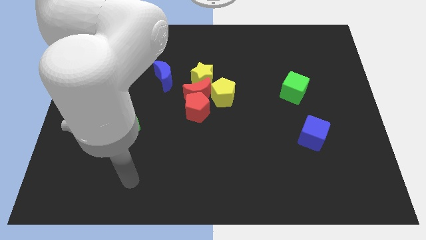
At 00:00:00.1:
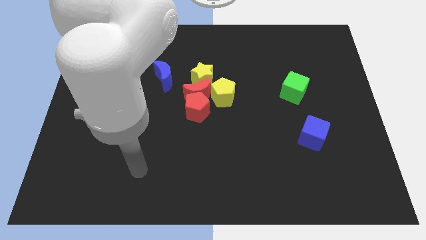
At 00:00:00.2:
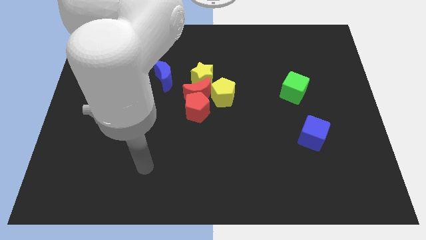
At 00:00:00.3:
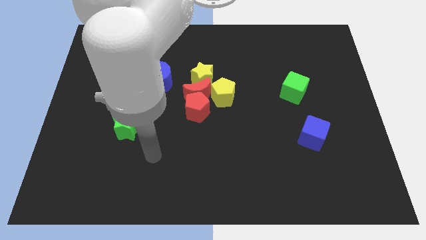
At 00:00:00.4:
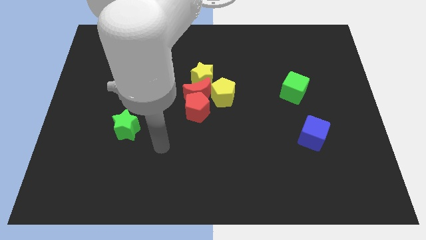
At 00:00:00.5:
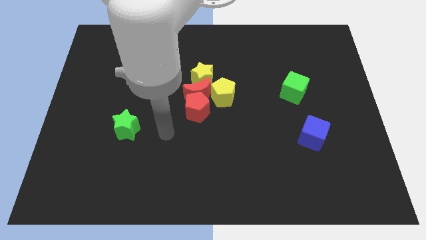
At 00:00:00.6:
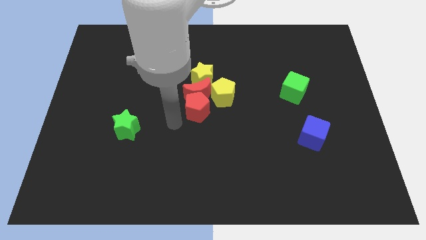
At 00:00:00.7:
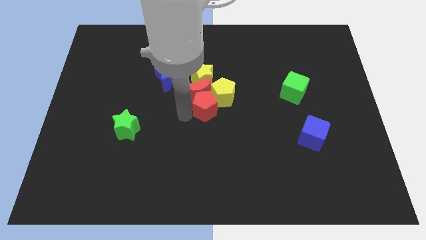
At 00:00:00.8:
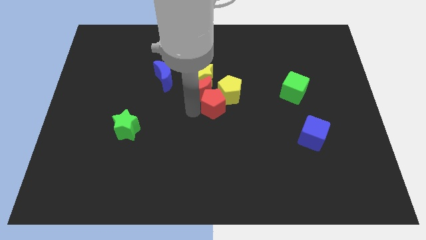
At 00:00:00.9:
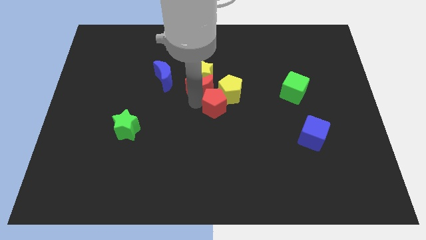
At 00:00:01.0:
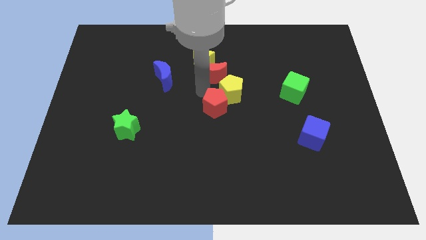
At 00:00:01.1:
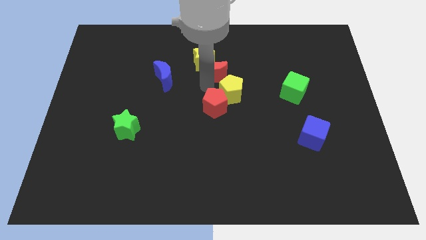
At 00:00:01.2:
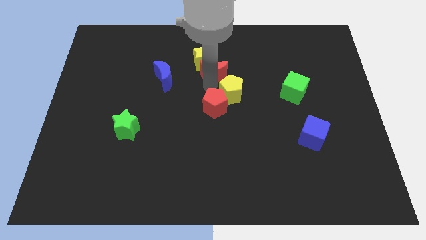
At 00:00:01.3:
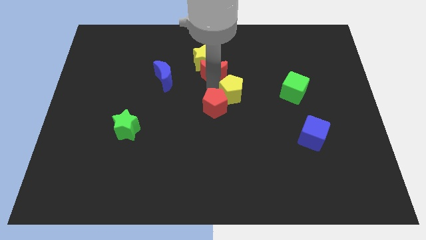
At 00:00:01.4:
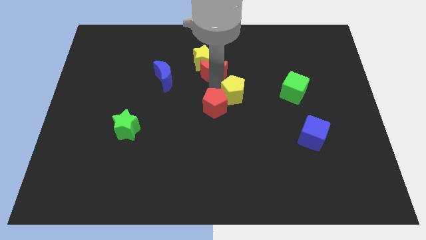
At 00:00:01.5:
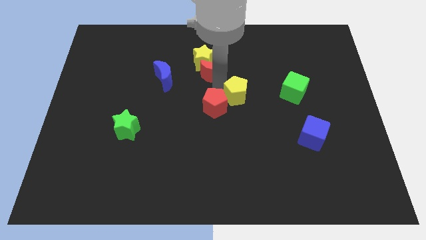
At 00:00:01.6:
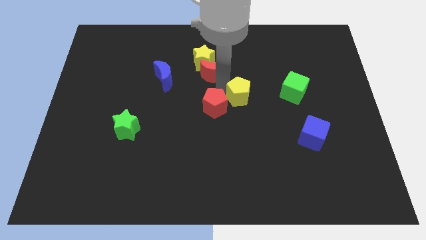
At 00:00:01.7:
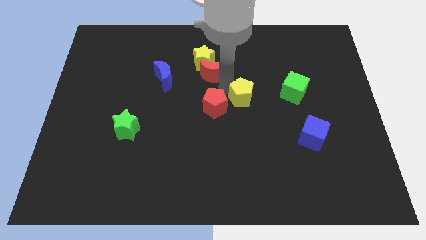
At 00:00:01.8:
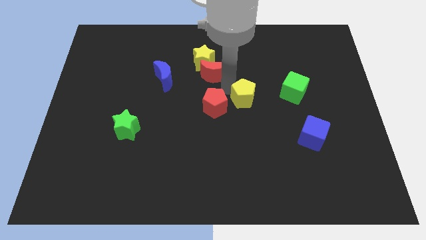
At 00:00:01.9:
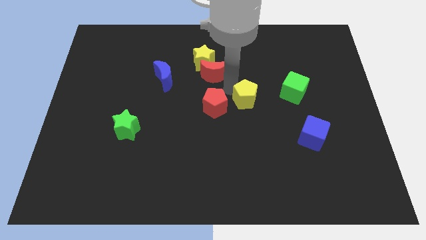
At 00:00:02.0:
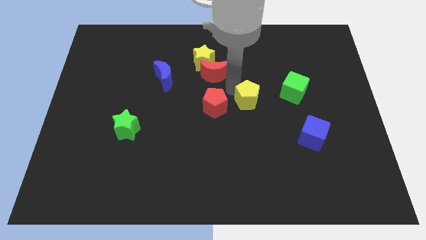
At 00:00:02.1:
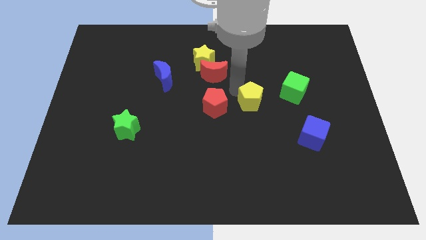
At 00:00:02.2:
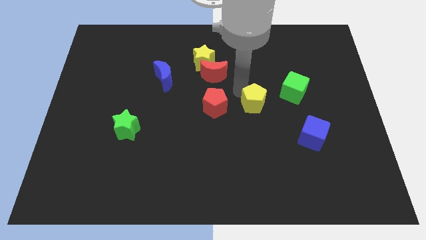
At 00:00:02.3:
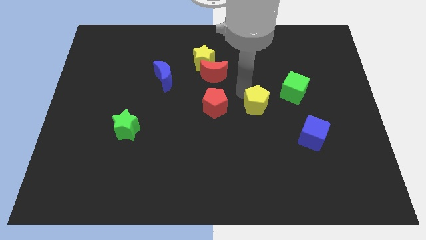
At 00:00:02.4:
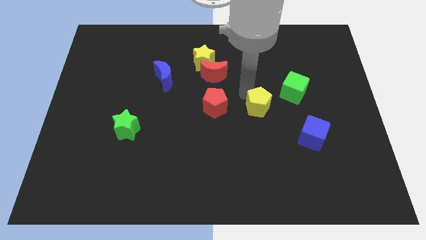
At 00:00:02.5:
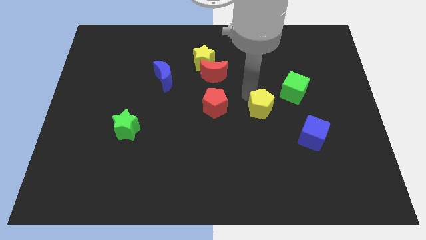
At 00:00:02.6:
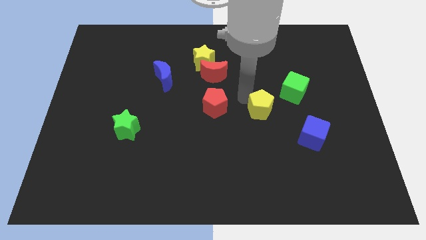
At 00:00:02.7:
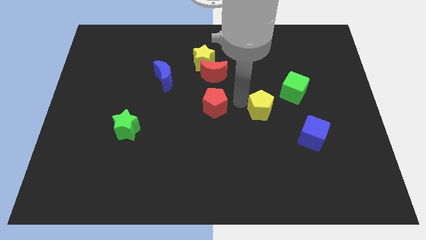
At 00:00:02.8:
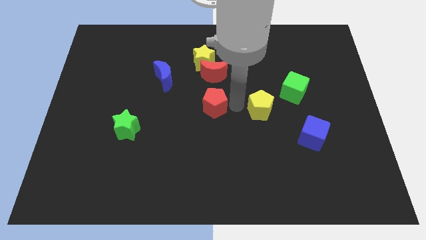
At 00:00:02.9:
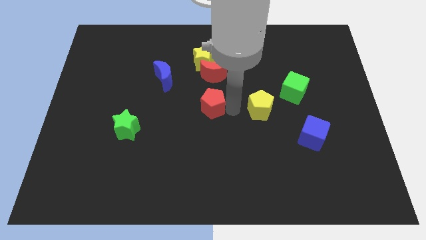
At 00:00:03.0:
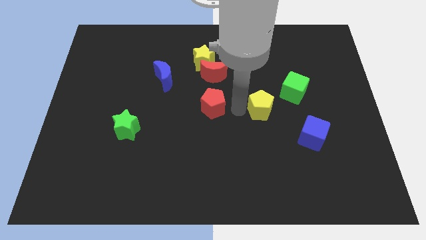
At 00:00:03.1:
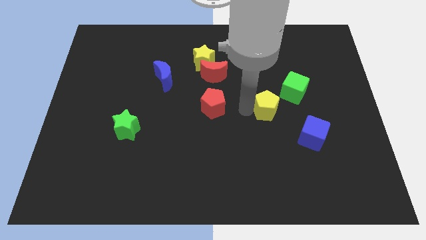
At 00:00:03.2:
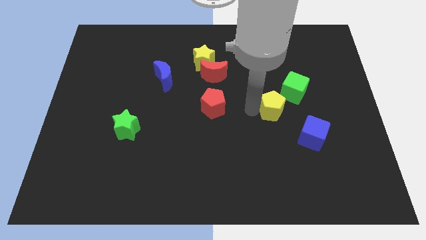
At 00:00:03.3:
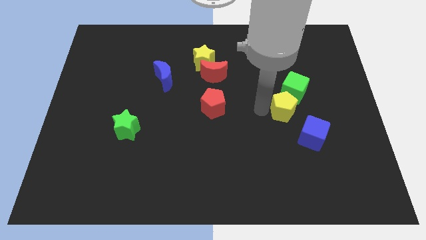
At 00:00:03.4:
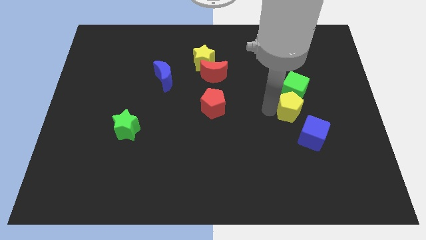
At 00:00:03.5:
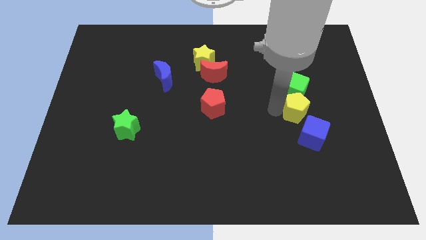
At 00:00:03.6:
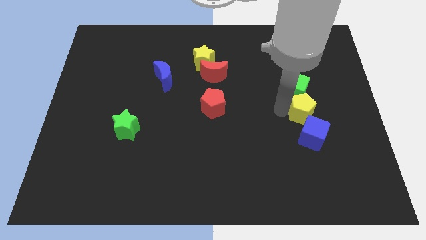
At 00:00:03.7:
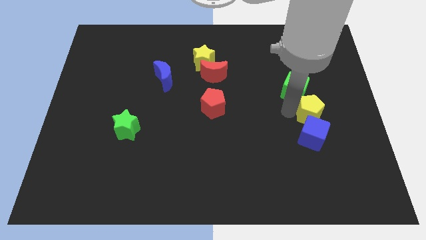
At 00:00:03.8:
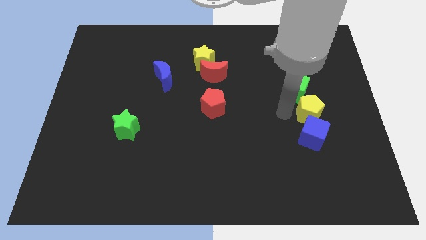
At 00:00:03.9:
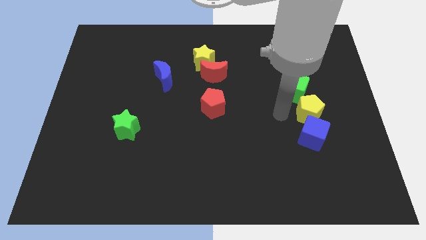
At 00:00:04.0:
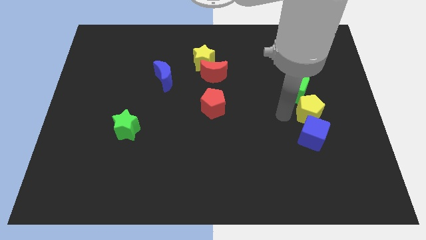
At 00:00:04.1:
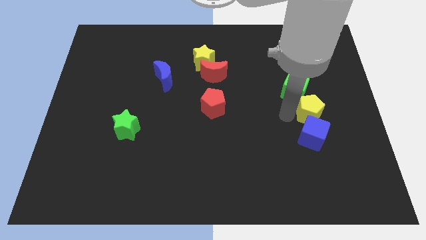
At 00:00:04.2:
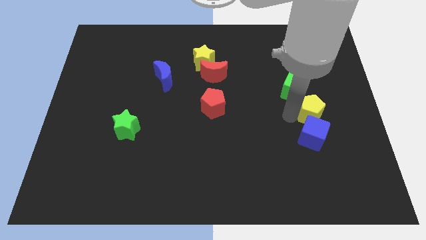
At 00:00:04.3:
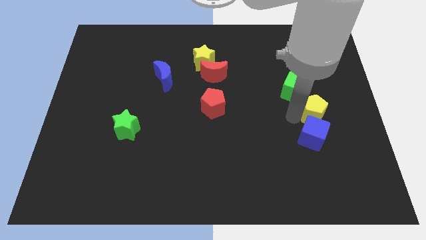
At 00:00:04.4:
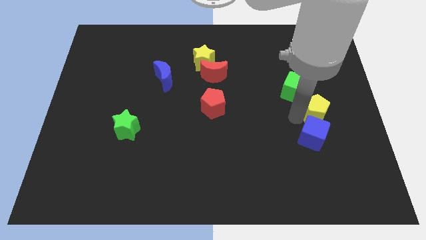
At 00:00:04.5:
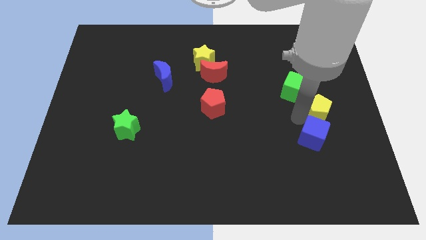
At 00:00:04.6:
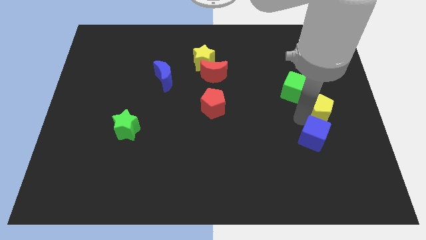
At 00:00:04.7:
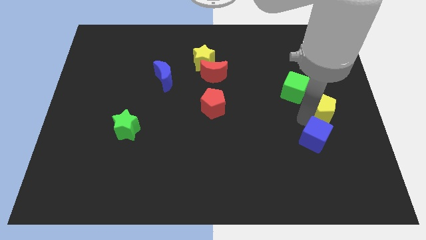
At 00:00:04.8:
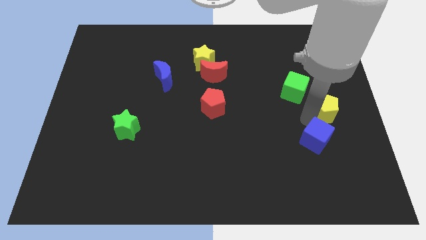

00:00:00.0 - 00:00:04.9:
slide the yellow pentagon to the center right

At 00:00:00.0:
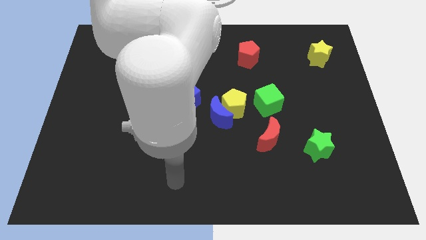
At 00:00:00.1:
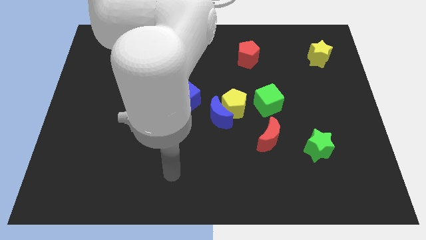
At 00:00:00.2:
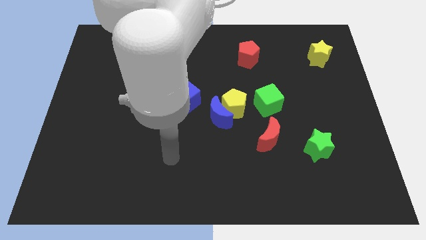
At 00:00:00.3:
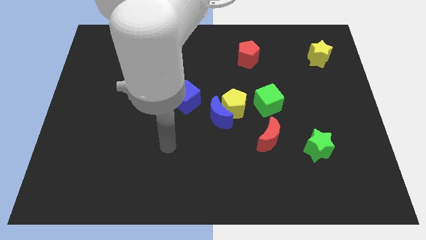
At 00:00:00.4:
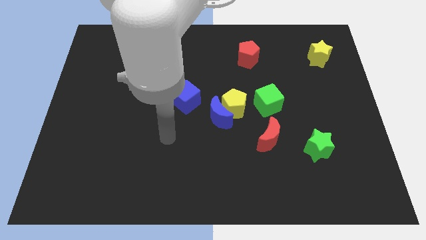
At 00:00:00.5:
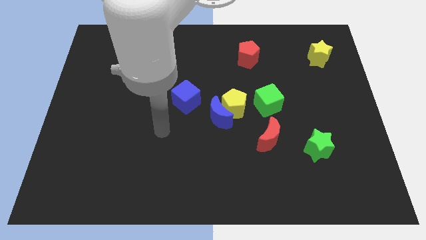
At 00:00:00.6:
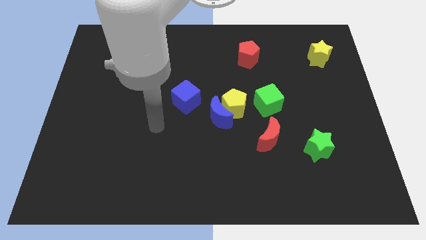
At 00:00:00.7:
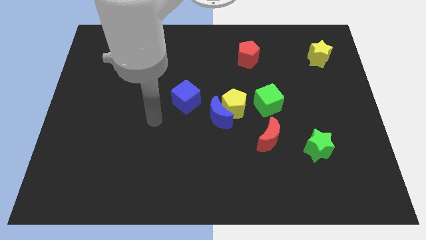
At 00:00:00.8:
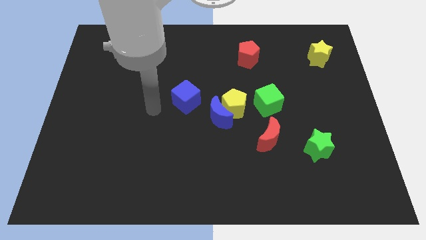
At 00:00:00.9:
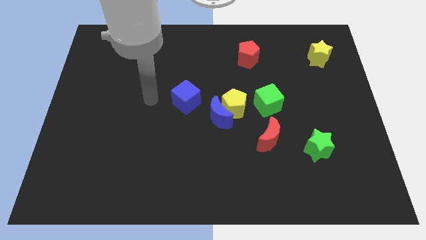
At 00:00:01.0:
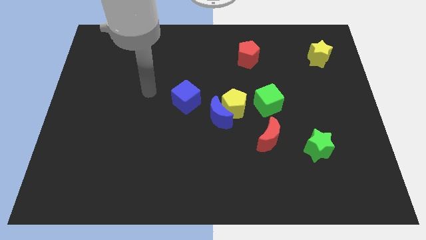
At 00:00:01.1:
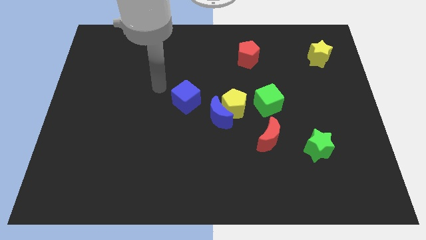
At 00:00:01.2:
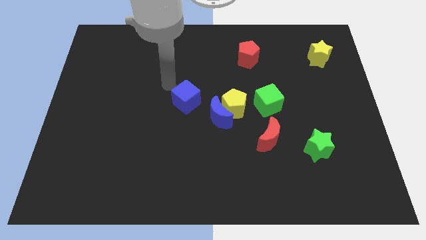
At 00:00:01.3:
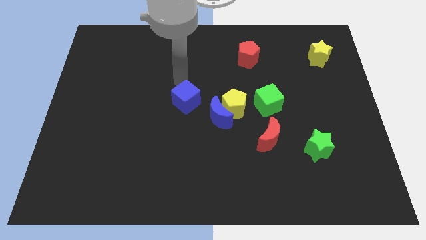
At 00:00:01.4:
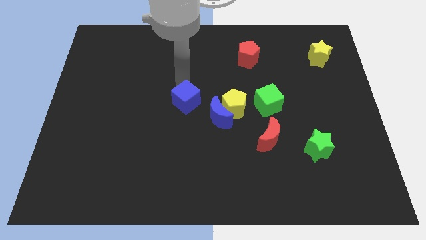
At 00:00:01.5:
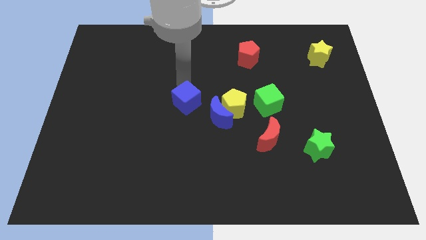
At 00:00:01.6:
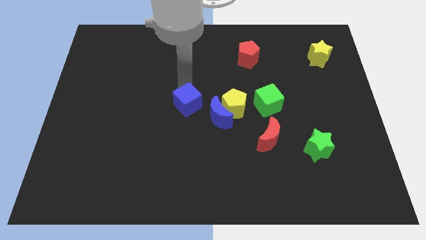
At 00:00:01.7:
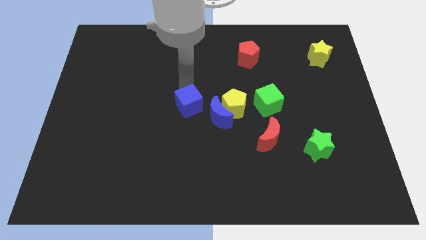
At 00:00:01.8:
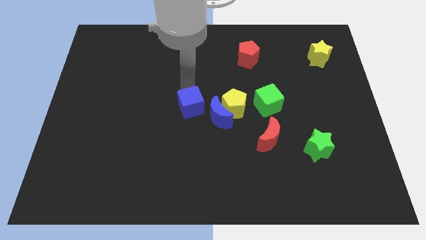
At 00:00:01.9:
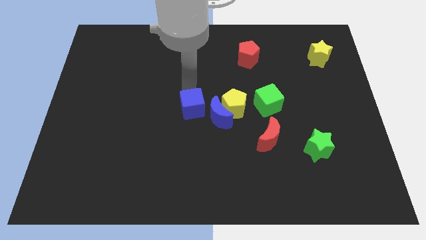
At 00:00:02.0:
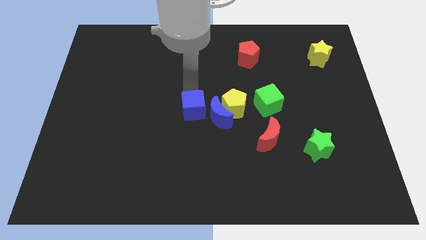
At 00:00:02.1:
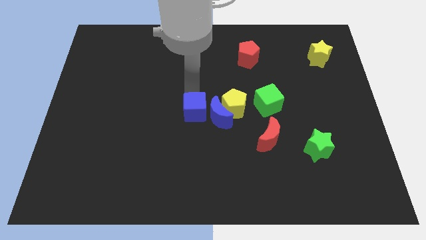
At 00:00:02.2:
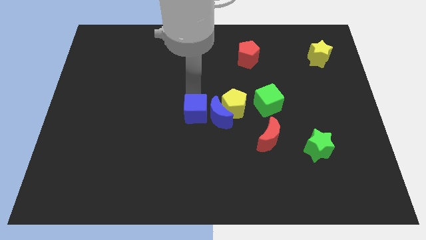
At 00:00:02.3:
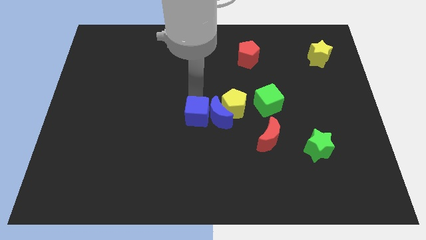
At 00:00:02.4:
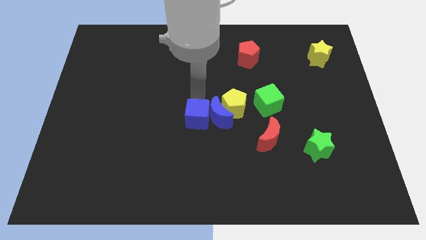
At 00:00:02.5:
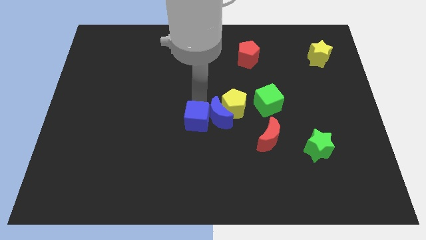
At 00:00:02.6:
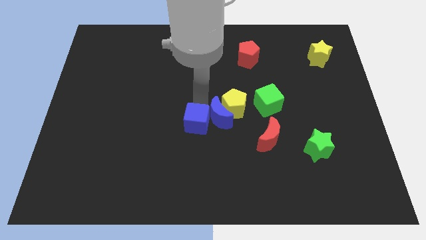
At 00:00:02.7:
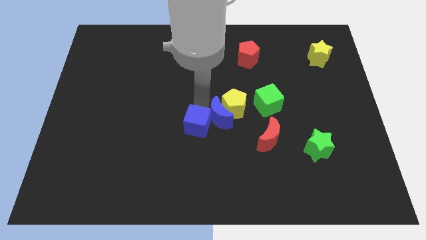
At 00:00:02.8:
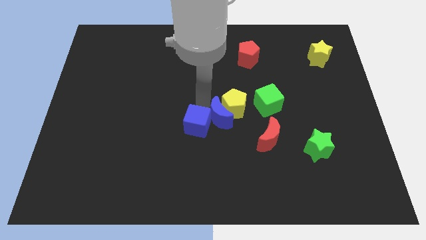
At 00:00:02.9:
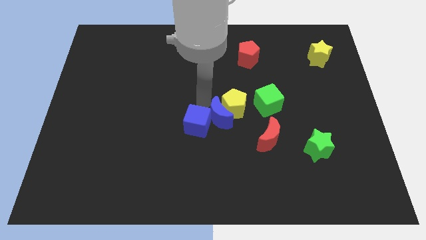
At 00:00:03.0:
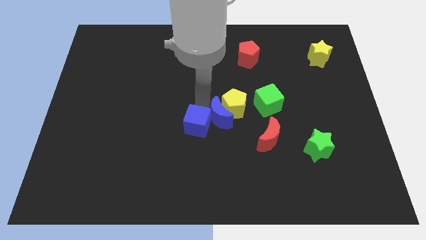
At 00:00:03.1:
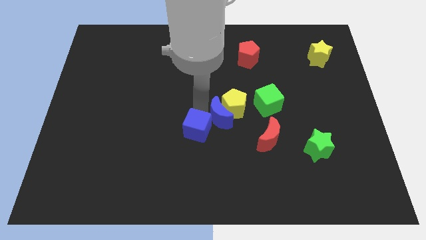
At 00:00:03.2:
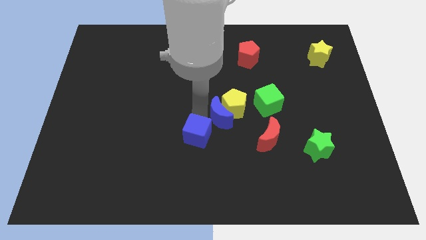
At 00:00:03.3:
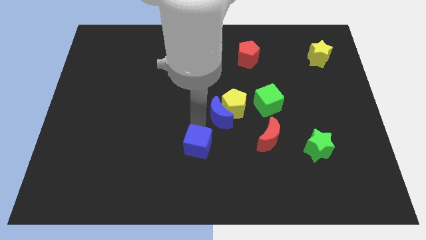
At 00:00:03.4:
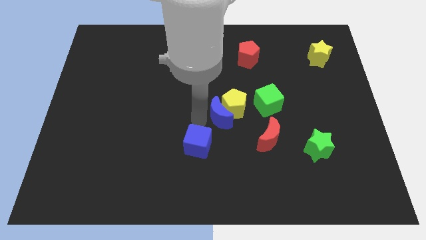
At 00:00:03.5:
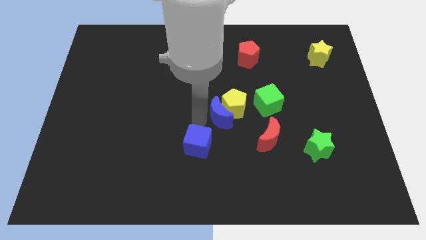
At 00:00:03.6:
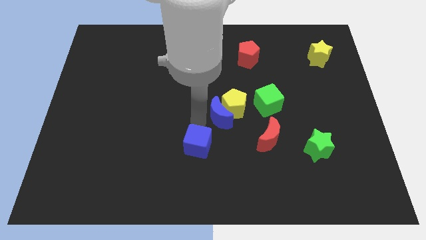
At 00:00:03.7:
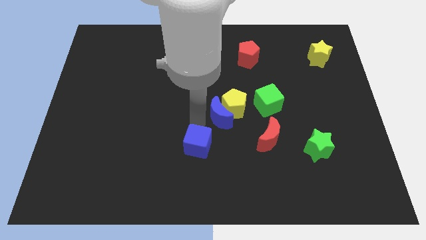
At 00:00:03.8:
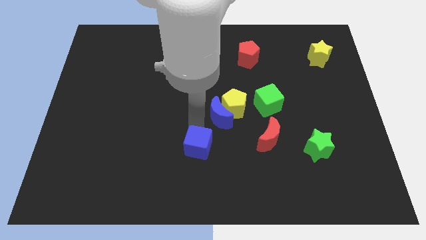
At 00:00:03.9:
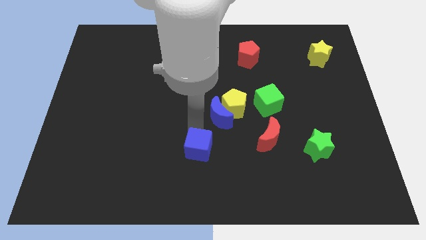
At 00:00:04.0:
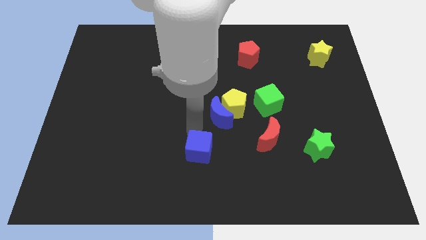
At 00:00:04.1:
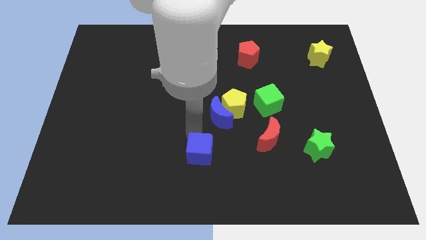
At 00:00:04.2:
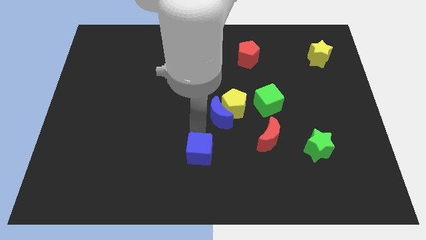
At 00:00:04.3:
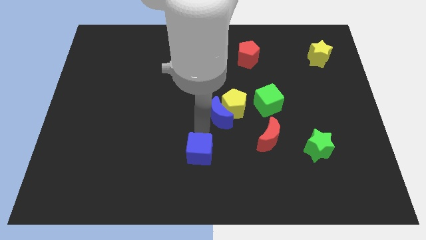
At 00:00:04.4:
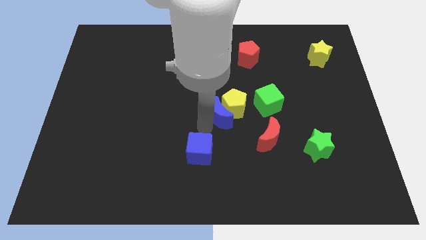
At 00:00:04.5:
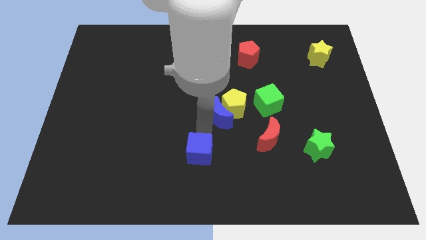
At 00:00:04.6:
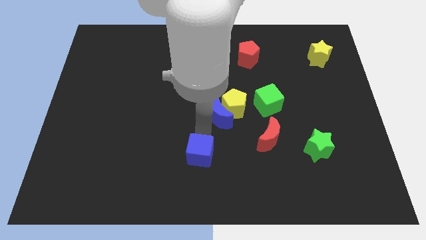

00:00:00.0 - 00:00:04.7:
move the blue cube to the bottom
